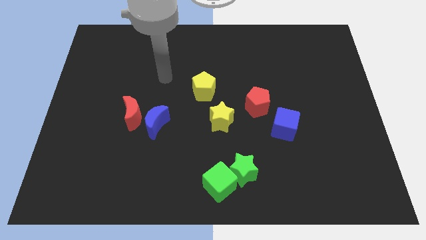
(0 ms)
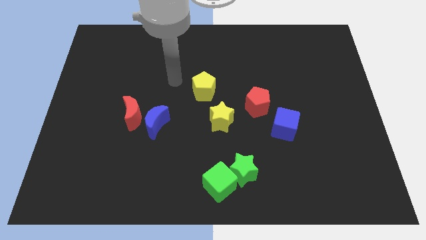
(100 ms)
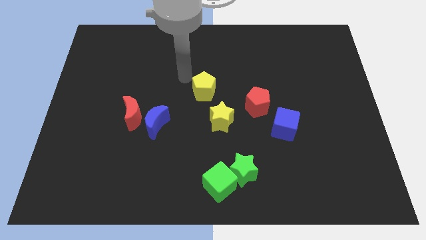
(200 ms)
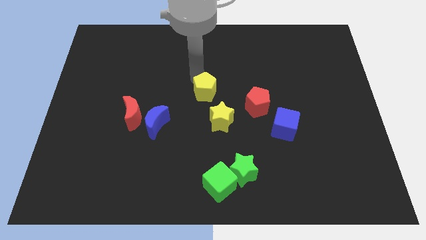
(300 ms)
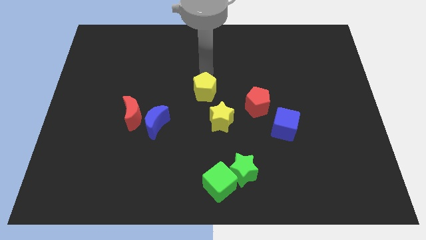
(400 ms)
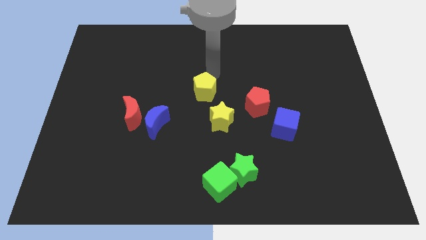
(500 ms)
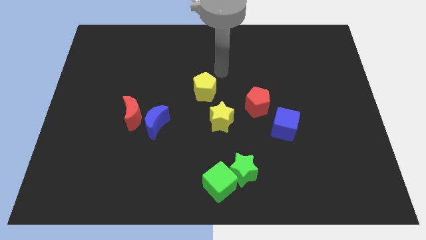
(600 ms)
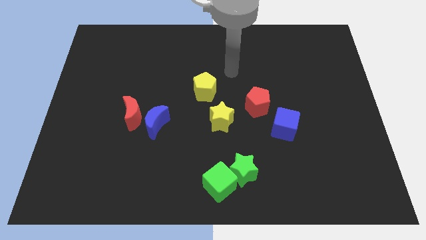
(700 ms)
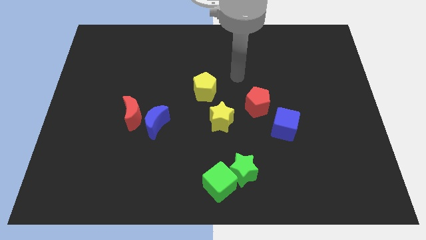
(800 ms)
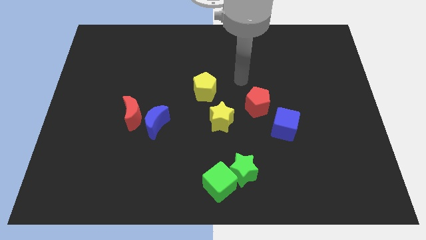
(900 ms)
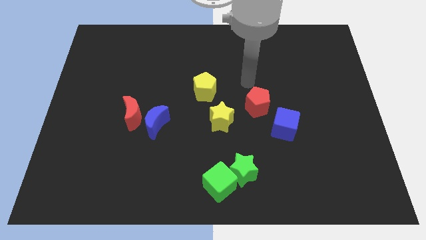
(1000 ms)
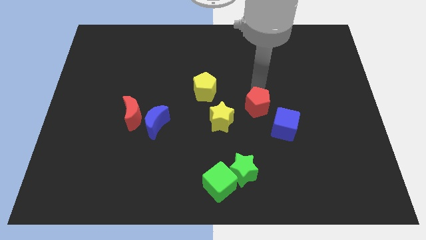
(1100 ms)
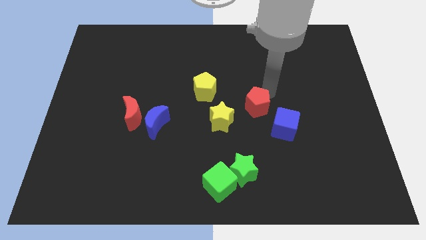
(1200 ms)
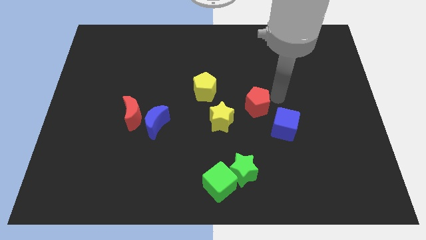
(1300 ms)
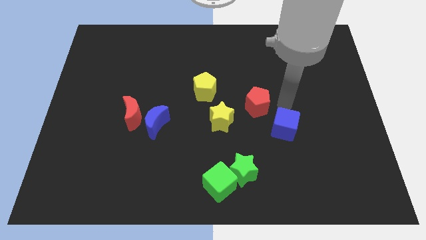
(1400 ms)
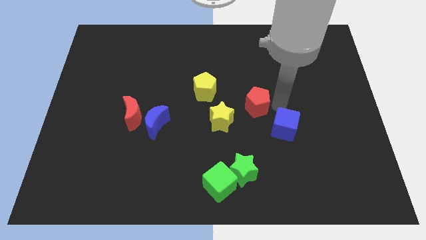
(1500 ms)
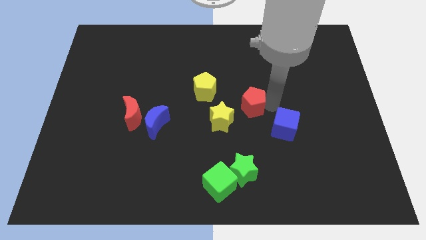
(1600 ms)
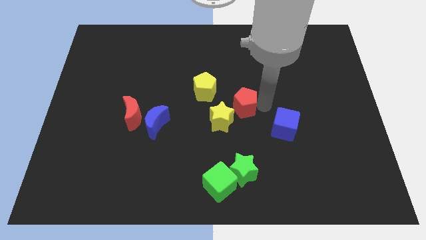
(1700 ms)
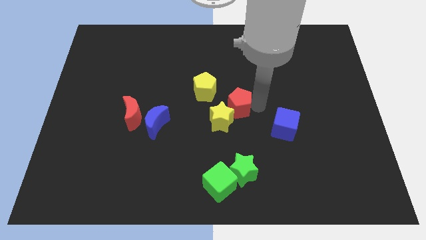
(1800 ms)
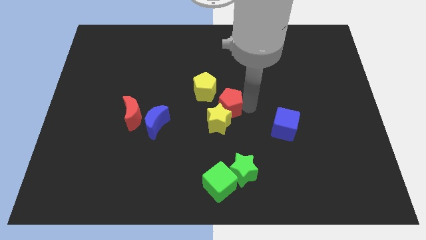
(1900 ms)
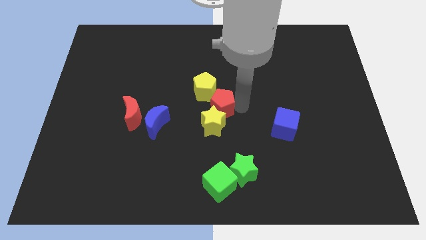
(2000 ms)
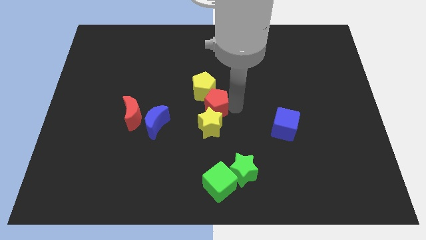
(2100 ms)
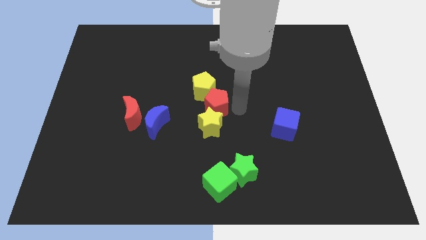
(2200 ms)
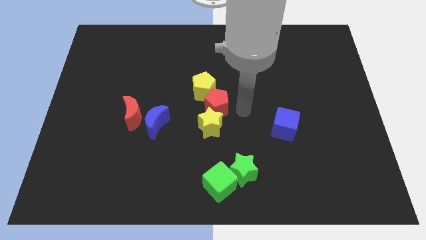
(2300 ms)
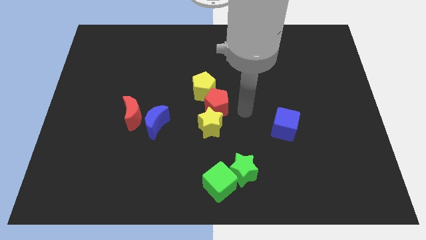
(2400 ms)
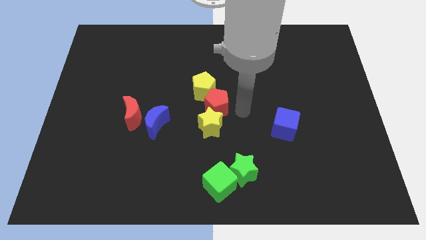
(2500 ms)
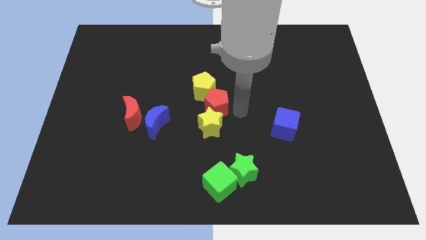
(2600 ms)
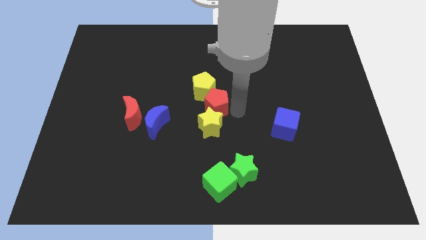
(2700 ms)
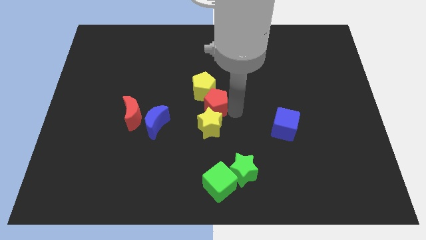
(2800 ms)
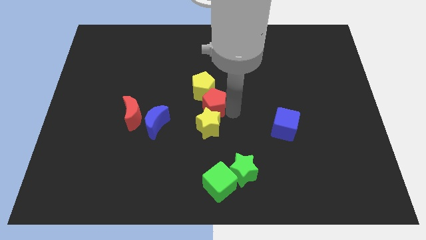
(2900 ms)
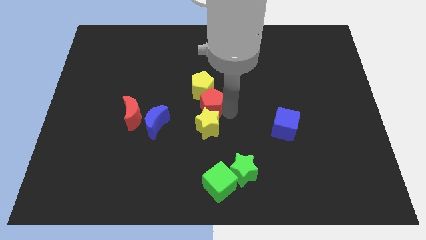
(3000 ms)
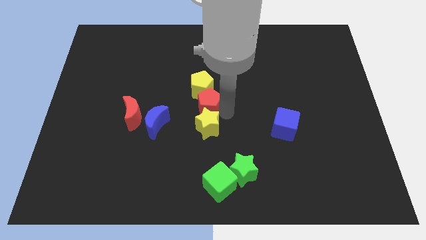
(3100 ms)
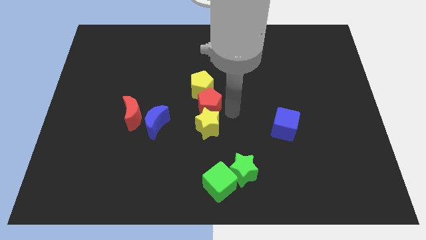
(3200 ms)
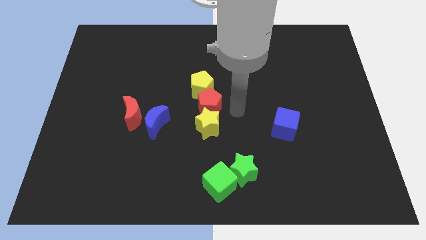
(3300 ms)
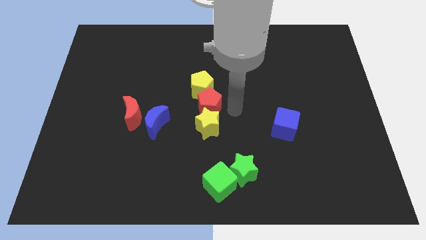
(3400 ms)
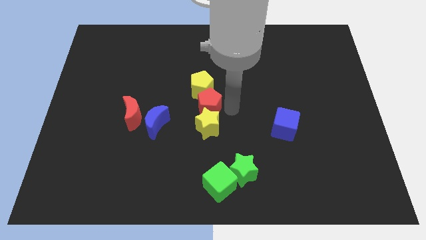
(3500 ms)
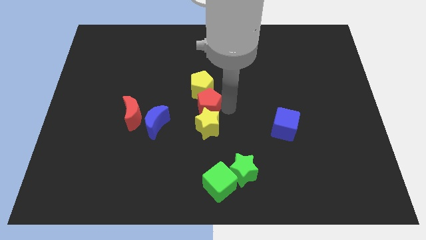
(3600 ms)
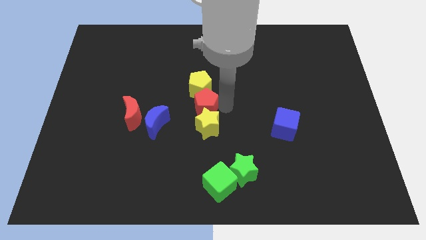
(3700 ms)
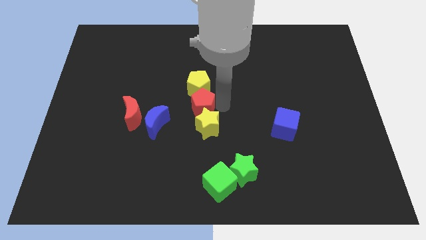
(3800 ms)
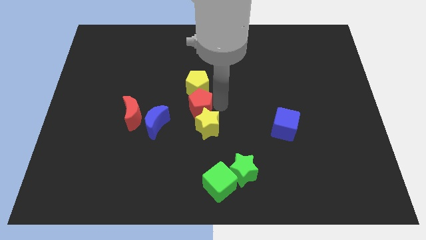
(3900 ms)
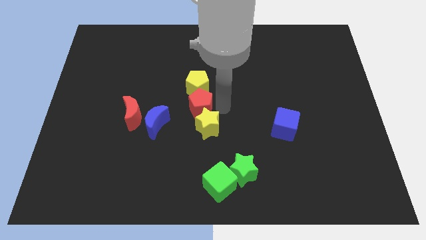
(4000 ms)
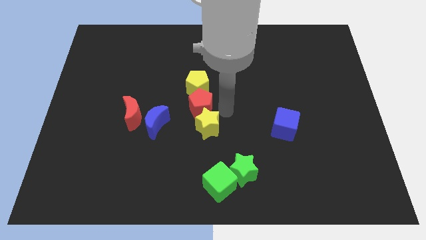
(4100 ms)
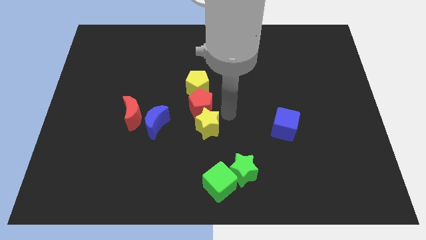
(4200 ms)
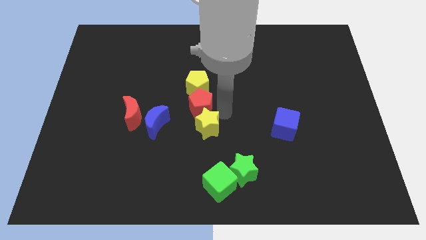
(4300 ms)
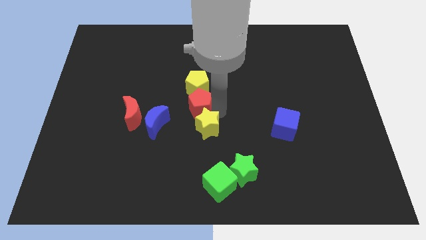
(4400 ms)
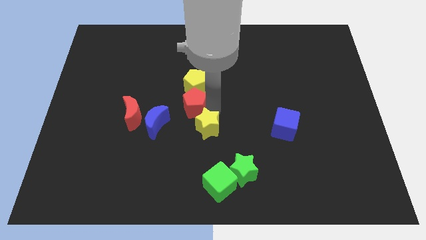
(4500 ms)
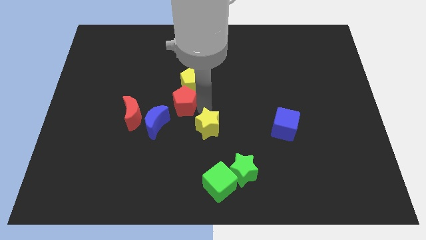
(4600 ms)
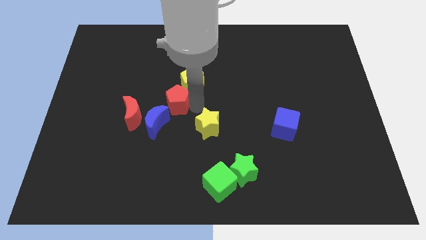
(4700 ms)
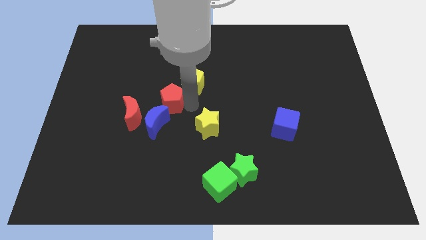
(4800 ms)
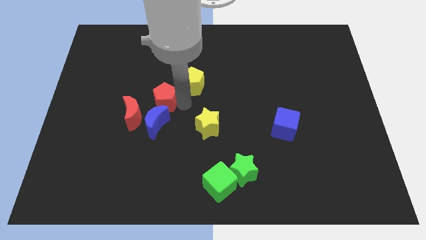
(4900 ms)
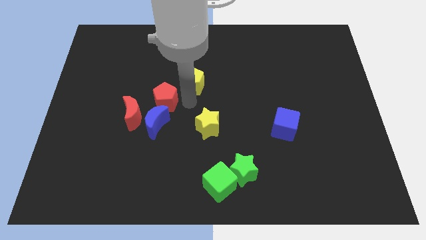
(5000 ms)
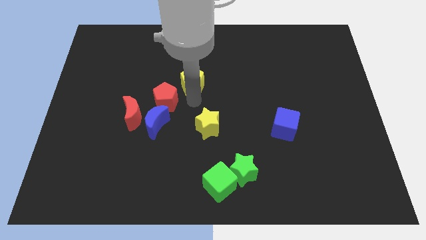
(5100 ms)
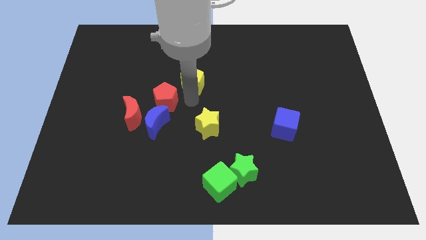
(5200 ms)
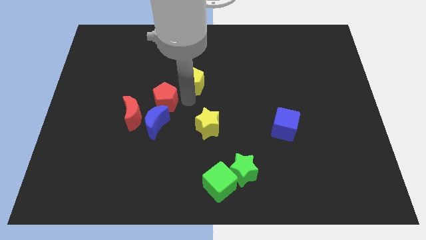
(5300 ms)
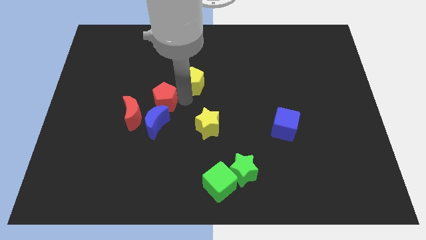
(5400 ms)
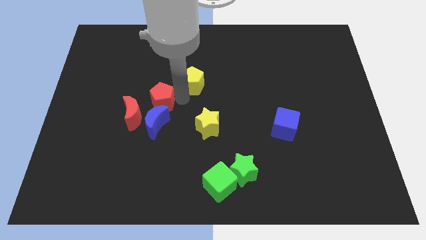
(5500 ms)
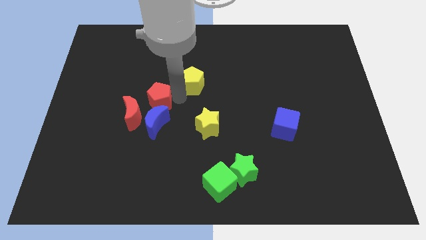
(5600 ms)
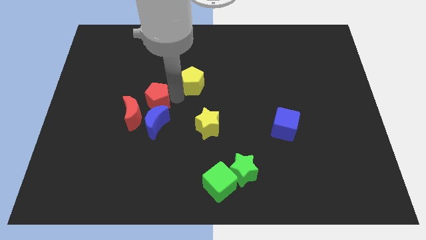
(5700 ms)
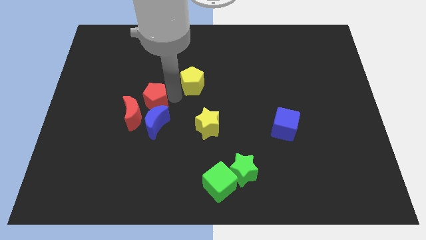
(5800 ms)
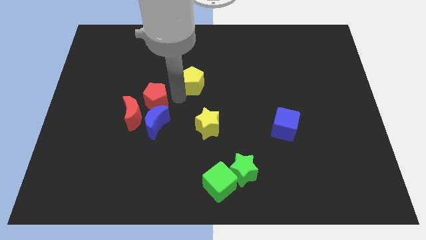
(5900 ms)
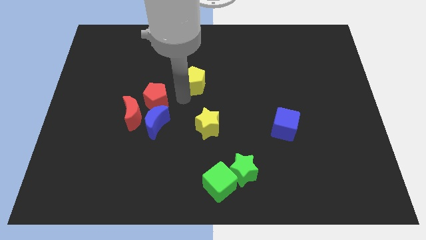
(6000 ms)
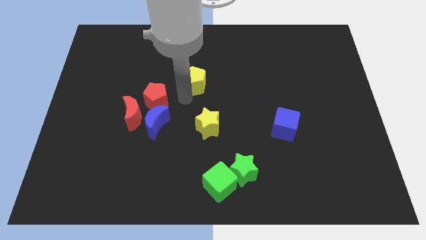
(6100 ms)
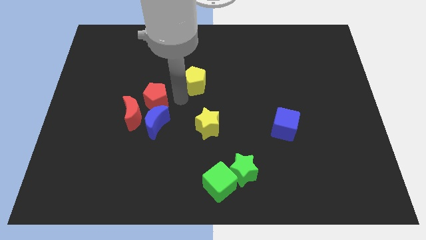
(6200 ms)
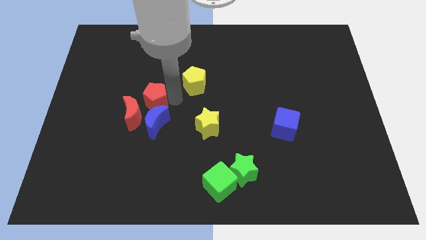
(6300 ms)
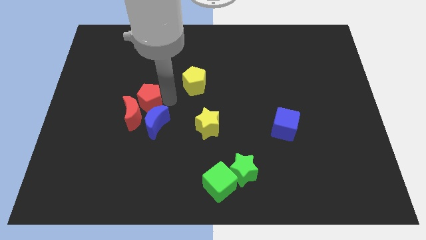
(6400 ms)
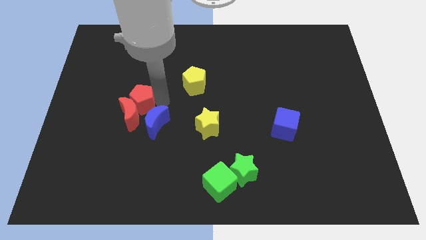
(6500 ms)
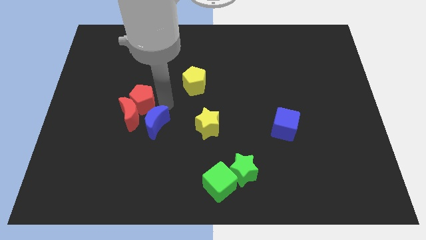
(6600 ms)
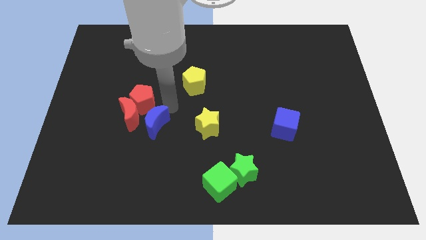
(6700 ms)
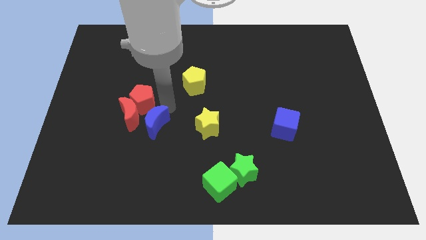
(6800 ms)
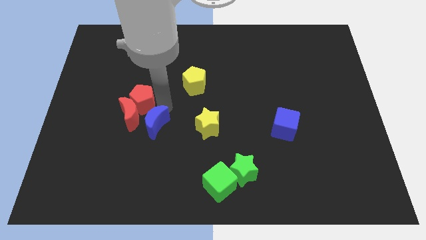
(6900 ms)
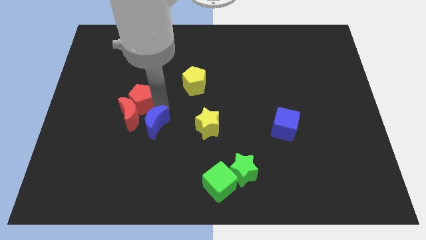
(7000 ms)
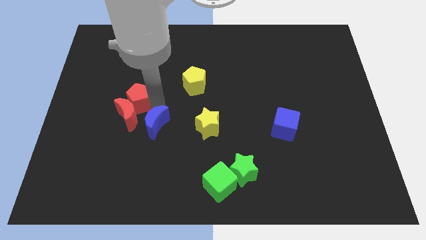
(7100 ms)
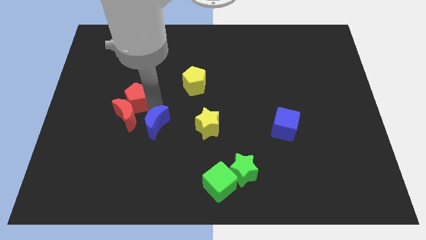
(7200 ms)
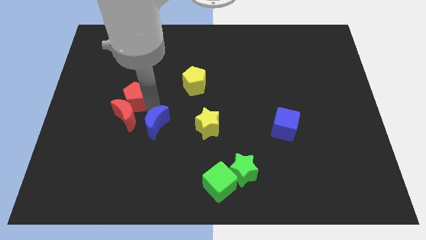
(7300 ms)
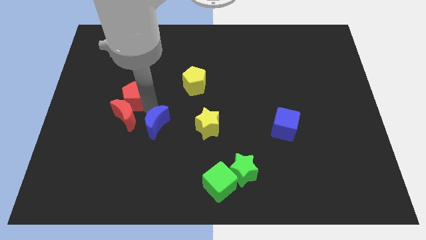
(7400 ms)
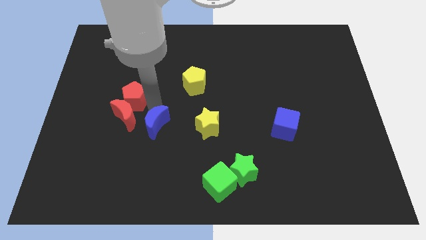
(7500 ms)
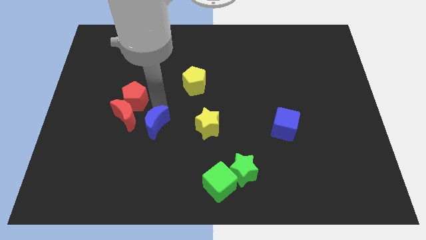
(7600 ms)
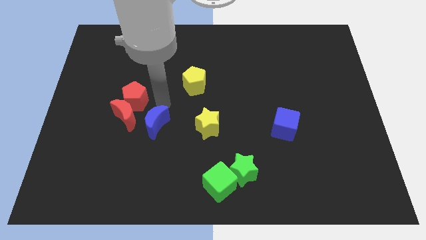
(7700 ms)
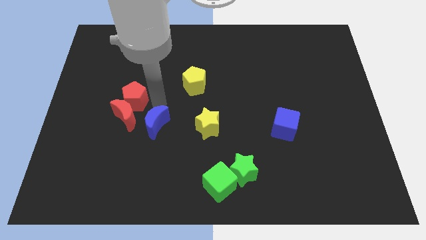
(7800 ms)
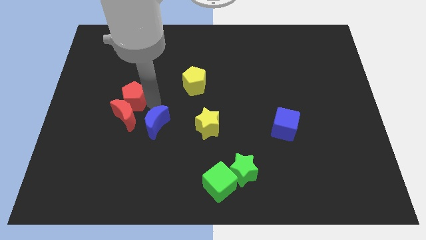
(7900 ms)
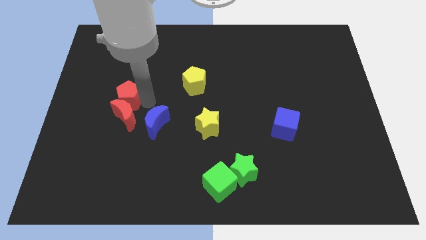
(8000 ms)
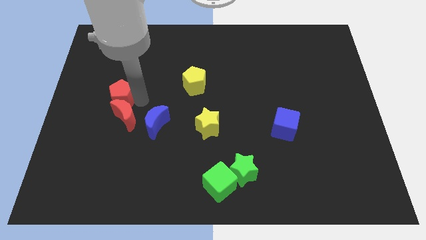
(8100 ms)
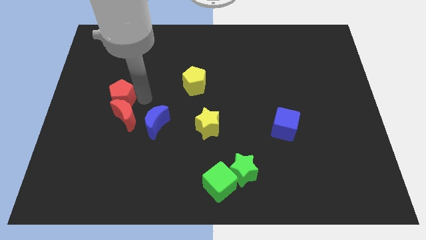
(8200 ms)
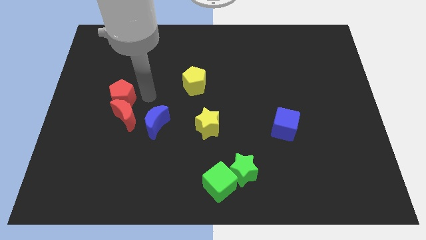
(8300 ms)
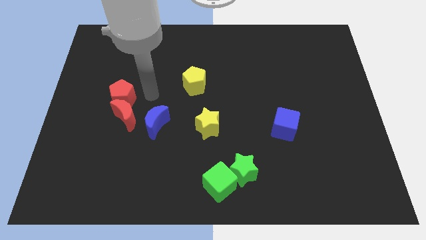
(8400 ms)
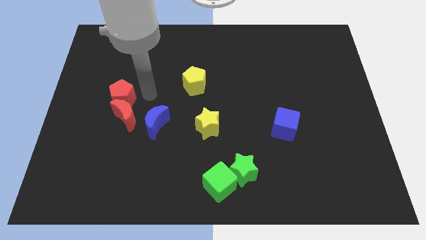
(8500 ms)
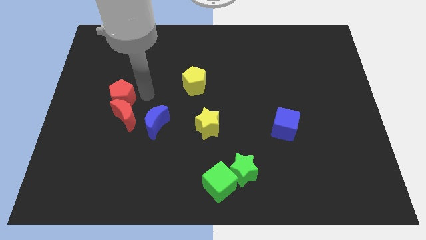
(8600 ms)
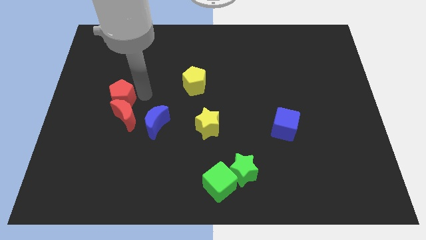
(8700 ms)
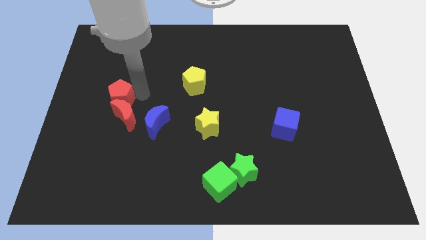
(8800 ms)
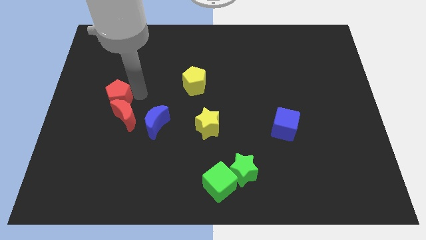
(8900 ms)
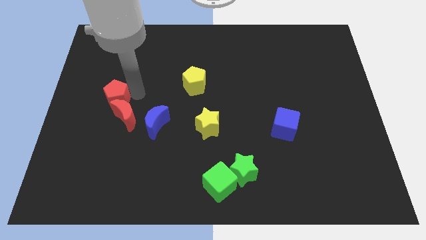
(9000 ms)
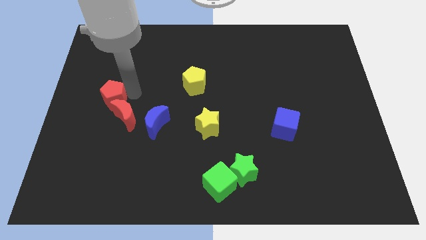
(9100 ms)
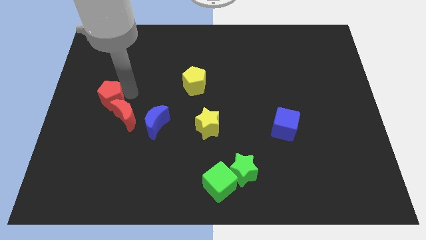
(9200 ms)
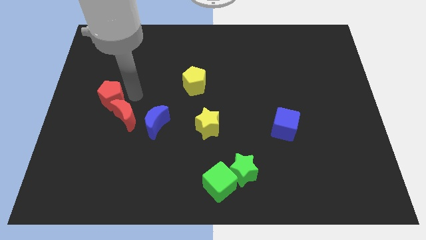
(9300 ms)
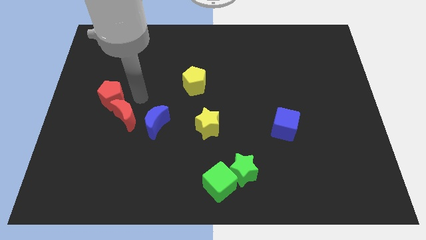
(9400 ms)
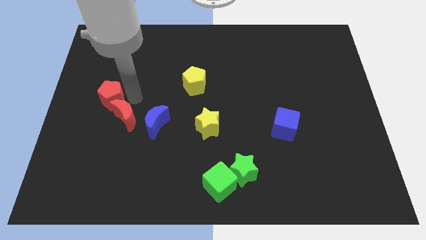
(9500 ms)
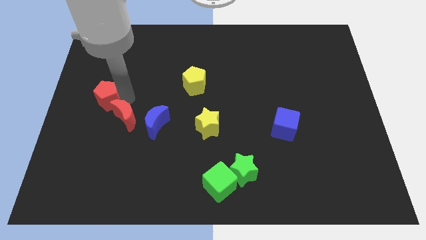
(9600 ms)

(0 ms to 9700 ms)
push the red pentagon to the left side
